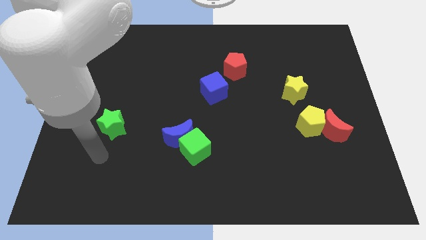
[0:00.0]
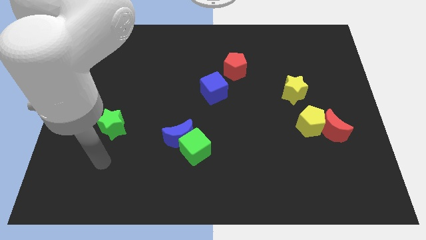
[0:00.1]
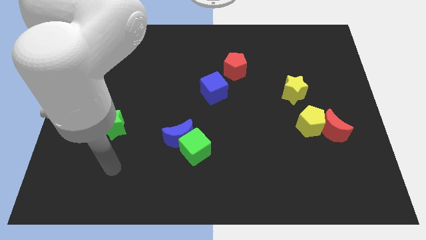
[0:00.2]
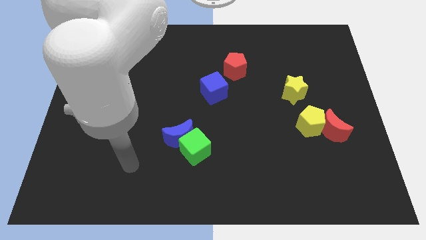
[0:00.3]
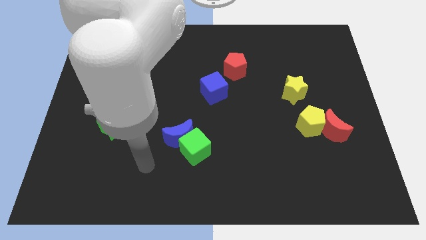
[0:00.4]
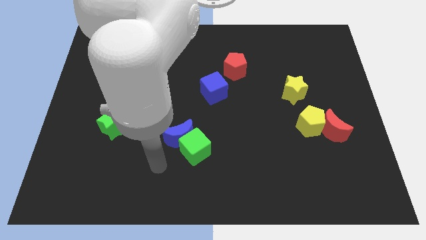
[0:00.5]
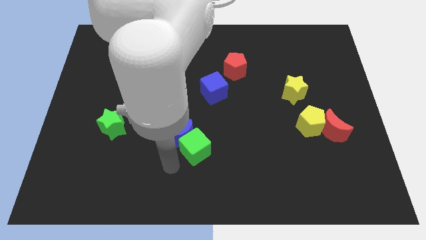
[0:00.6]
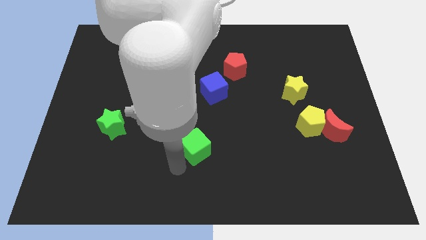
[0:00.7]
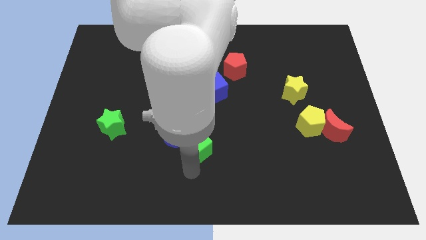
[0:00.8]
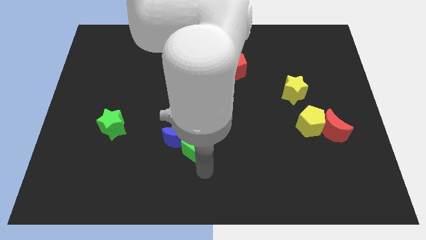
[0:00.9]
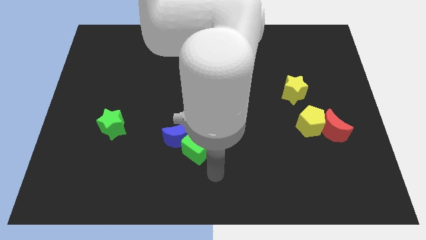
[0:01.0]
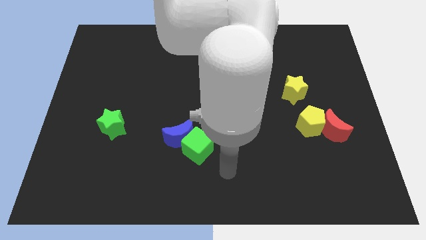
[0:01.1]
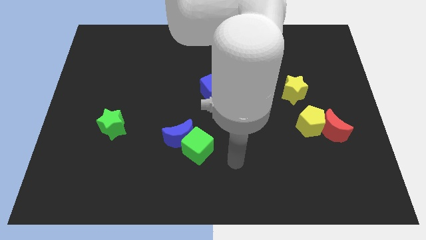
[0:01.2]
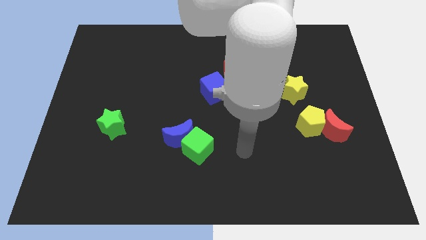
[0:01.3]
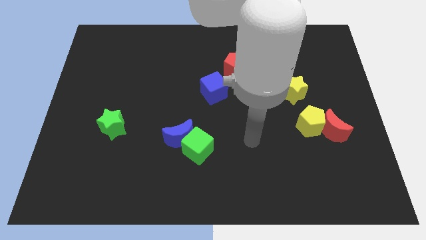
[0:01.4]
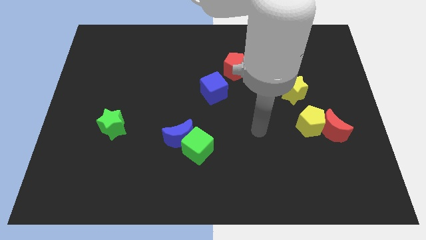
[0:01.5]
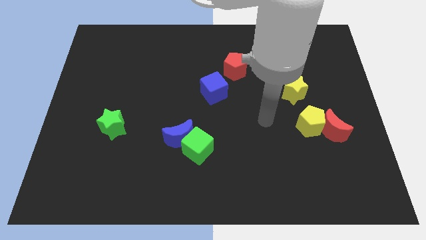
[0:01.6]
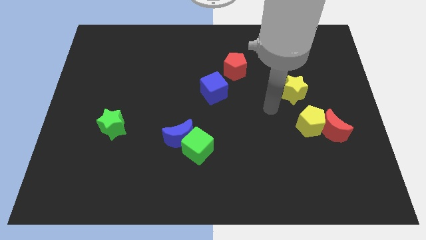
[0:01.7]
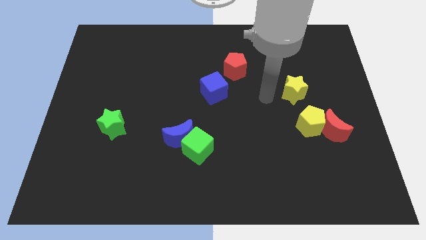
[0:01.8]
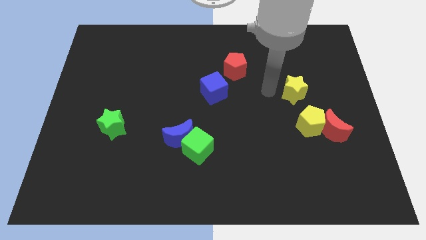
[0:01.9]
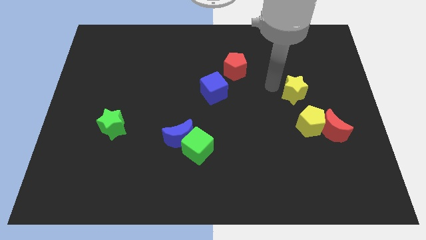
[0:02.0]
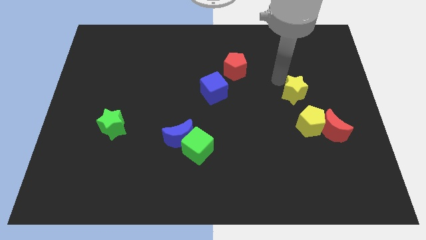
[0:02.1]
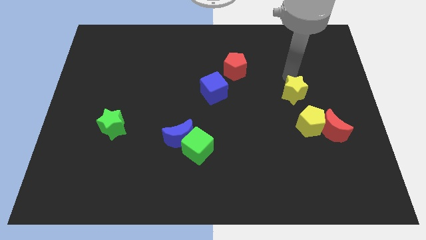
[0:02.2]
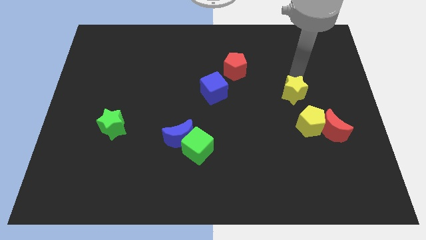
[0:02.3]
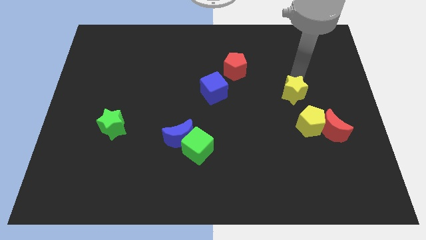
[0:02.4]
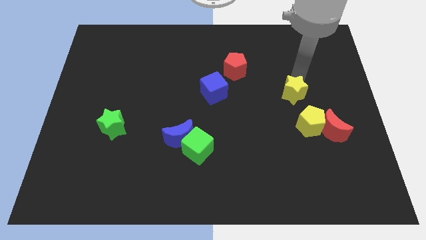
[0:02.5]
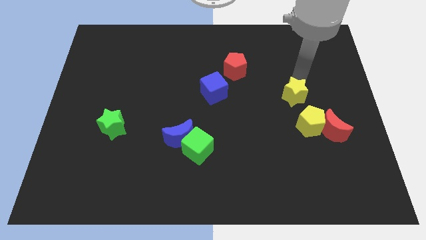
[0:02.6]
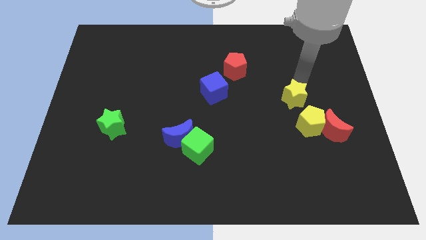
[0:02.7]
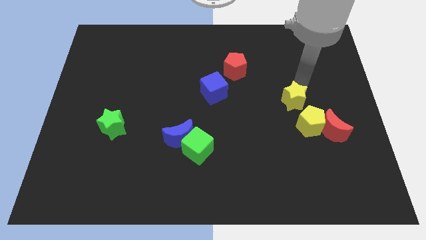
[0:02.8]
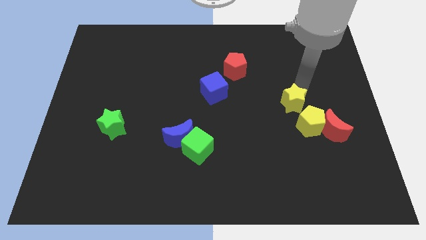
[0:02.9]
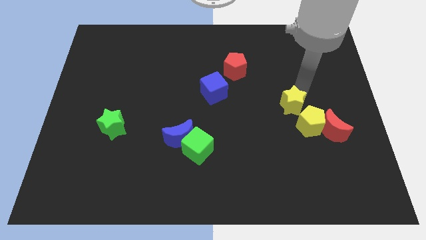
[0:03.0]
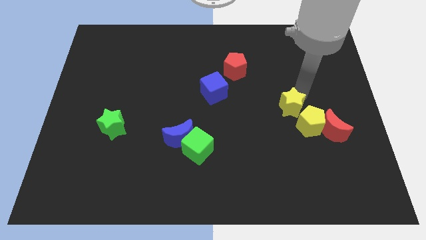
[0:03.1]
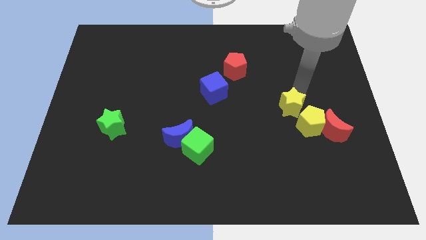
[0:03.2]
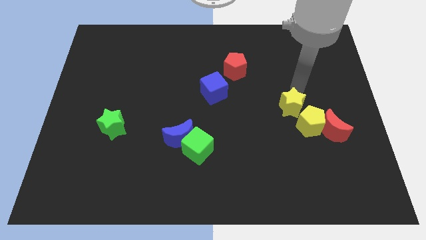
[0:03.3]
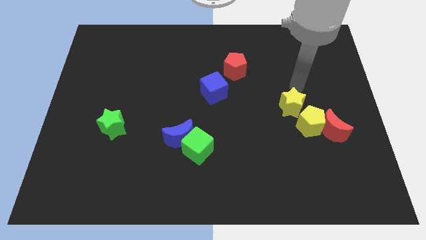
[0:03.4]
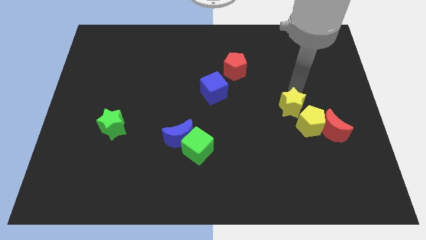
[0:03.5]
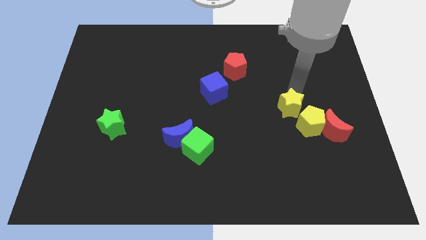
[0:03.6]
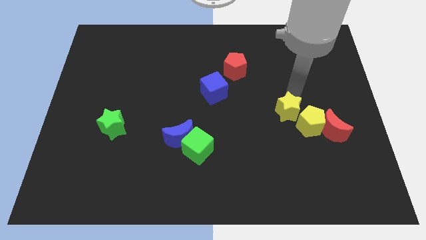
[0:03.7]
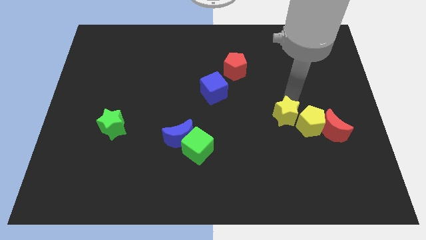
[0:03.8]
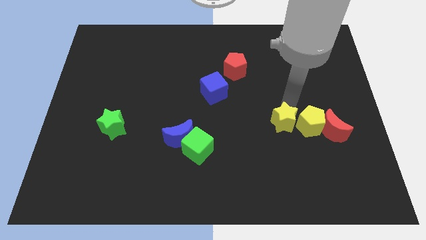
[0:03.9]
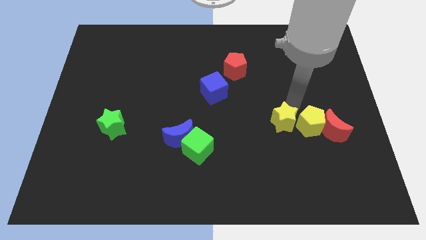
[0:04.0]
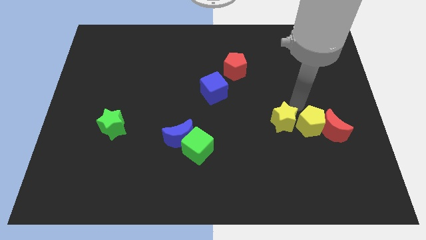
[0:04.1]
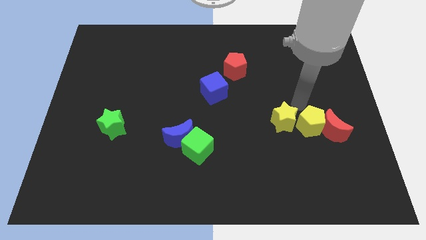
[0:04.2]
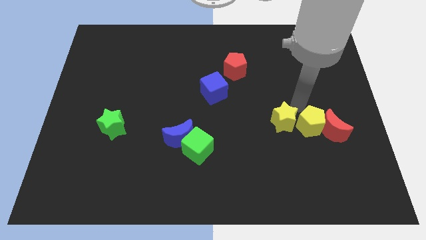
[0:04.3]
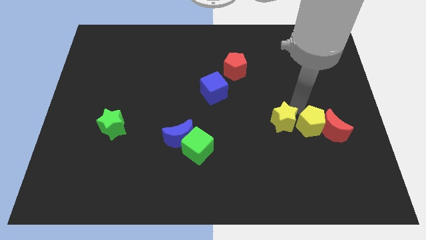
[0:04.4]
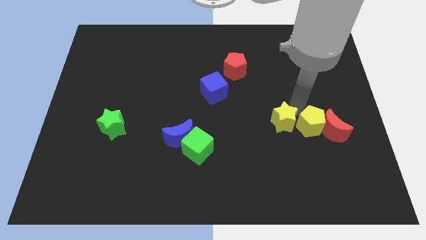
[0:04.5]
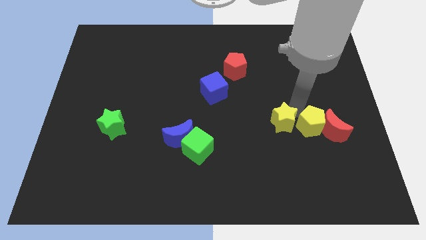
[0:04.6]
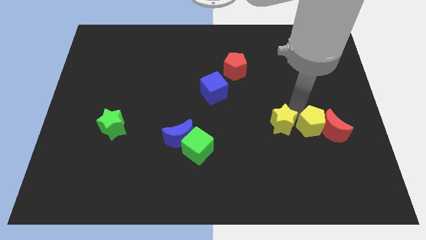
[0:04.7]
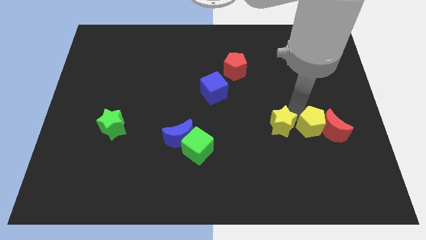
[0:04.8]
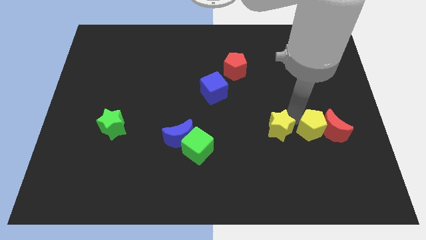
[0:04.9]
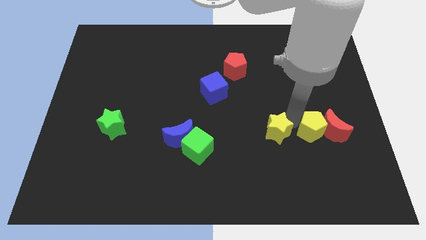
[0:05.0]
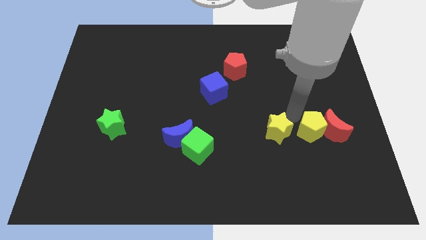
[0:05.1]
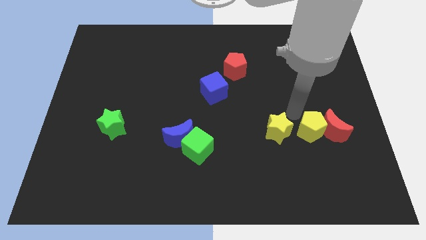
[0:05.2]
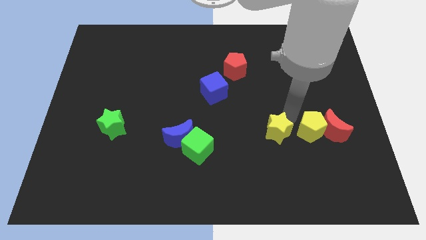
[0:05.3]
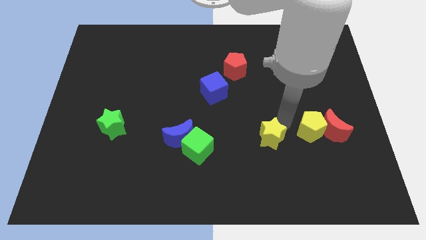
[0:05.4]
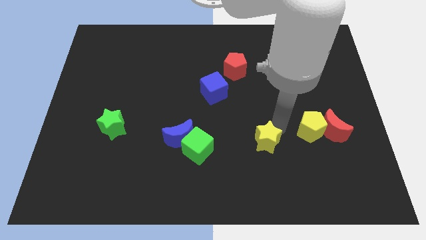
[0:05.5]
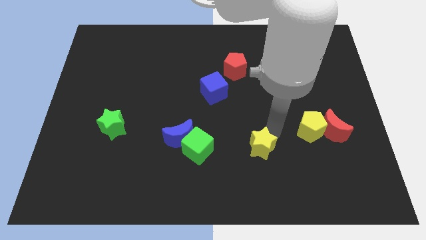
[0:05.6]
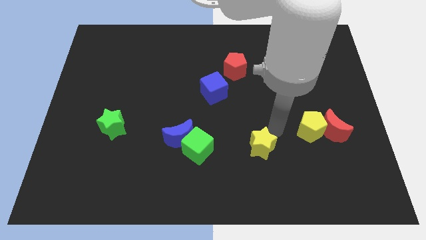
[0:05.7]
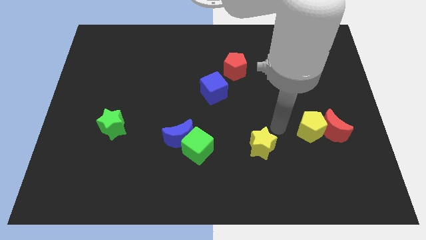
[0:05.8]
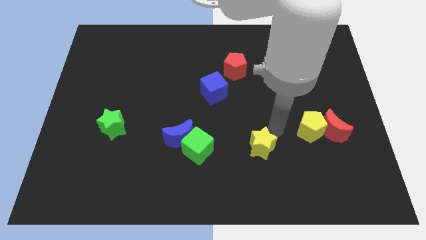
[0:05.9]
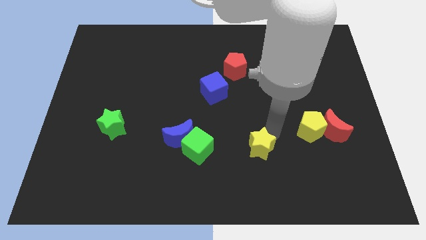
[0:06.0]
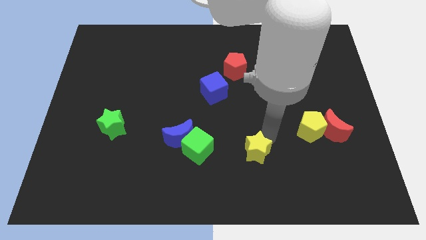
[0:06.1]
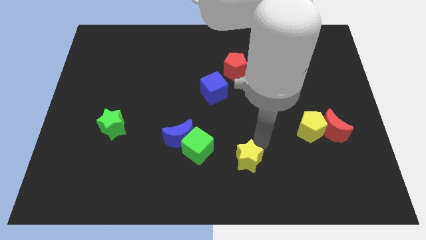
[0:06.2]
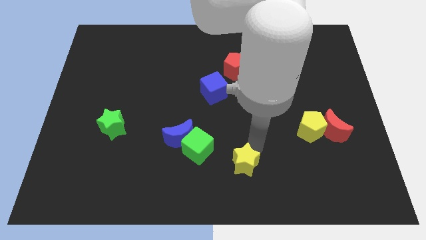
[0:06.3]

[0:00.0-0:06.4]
slide the yellow star to the bottom side
